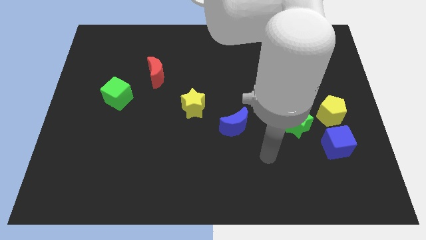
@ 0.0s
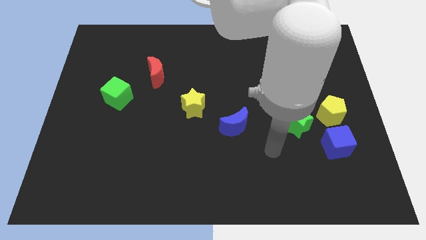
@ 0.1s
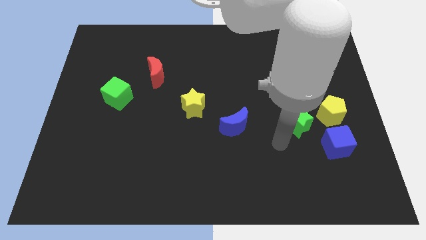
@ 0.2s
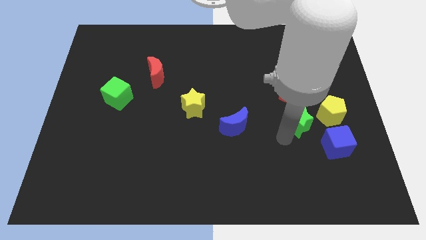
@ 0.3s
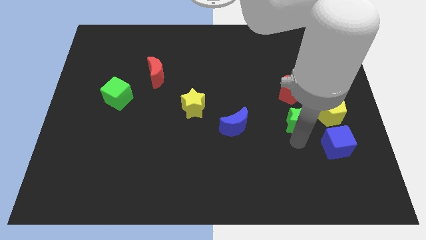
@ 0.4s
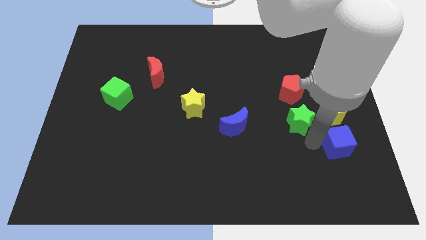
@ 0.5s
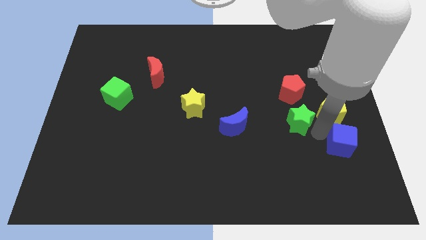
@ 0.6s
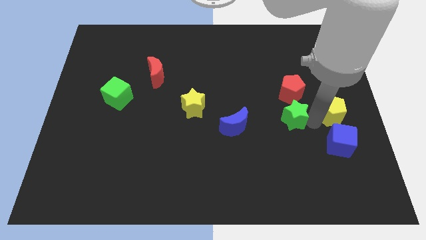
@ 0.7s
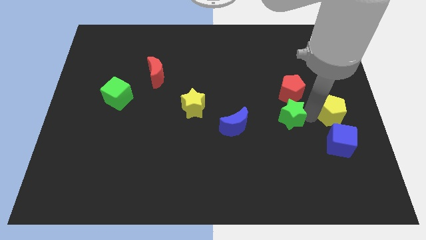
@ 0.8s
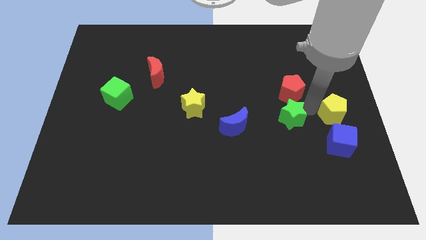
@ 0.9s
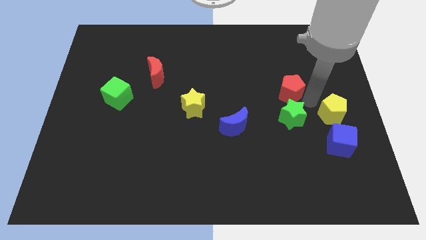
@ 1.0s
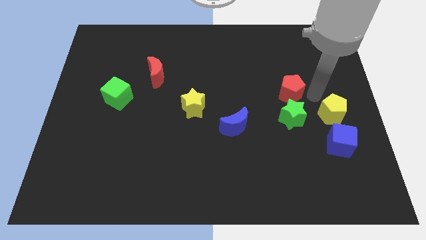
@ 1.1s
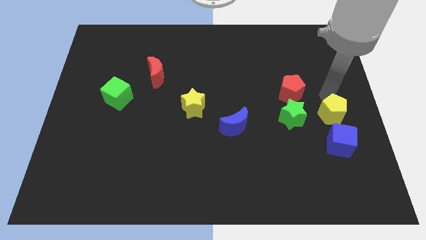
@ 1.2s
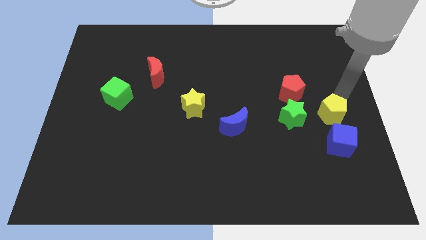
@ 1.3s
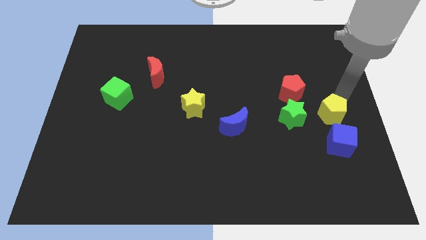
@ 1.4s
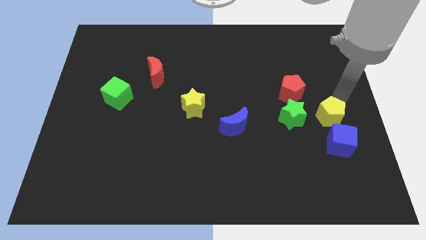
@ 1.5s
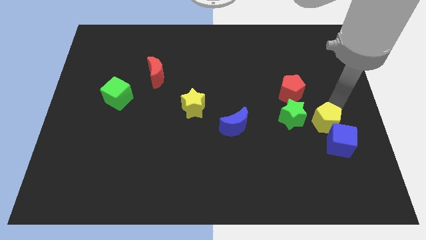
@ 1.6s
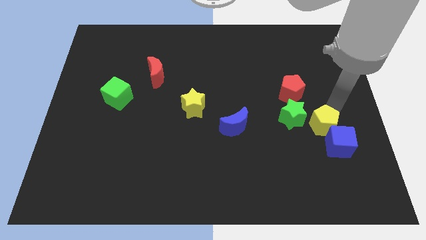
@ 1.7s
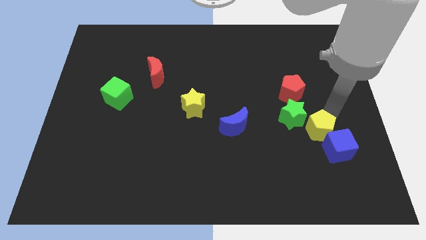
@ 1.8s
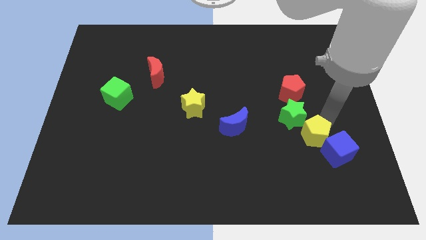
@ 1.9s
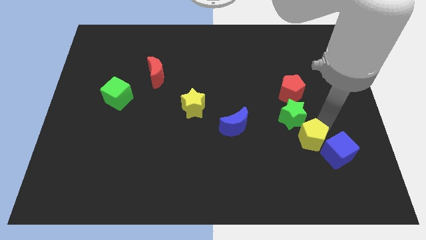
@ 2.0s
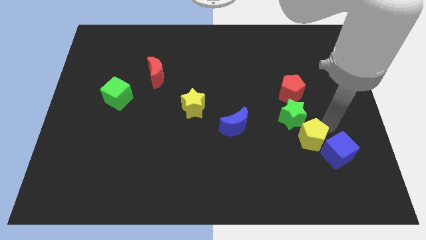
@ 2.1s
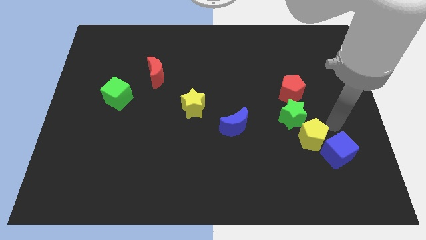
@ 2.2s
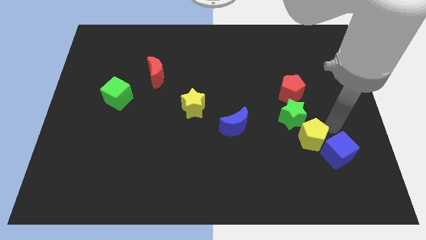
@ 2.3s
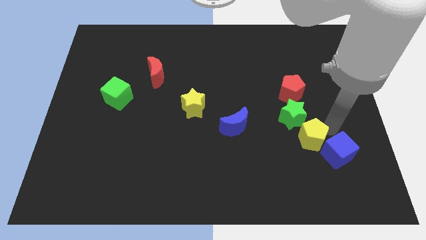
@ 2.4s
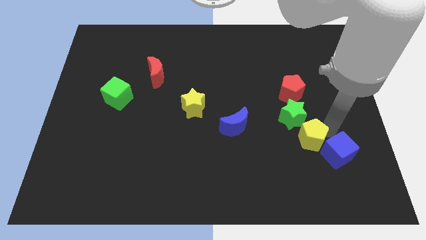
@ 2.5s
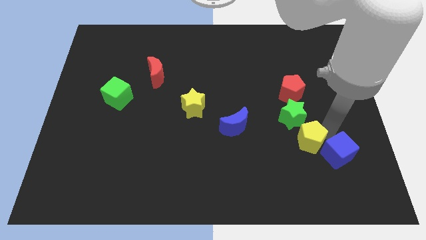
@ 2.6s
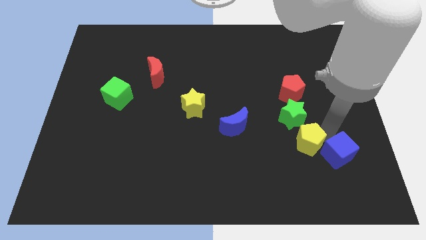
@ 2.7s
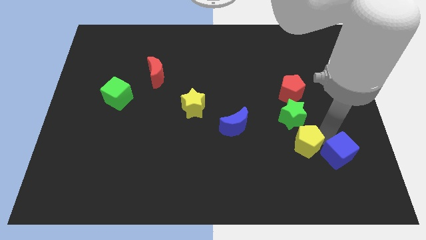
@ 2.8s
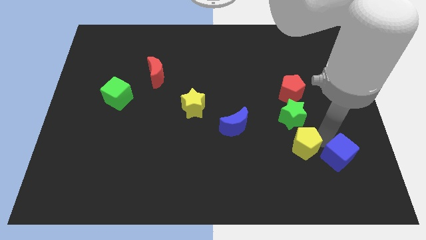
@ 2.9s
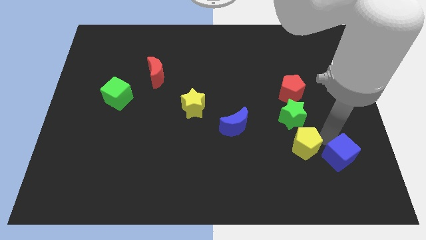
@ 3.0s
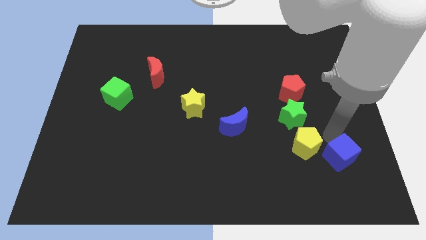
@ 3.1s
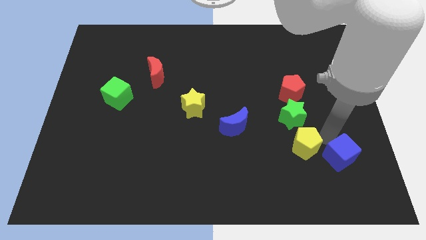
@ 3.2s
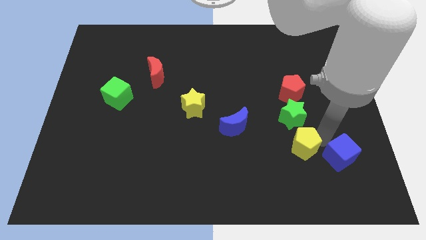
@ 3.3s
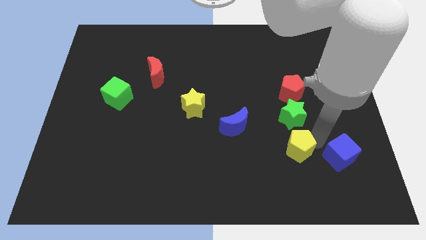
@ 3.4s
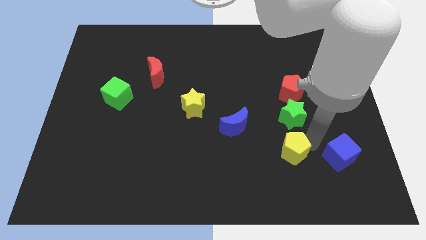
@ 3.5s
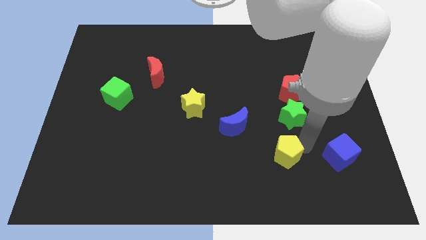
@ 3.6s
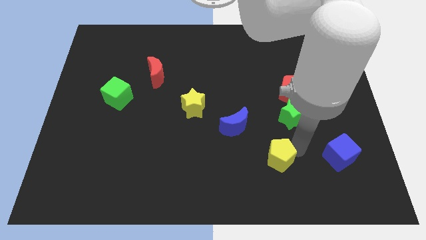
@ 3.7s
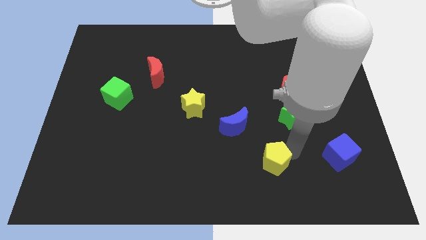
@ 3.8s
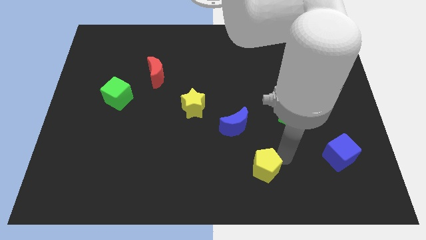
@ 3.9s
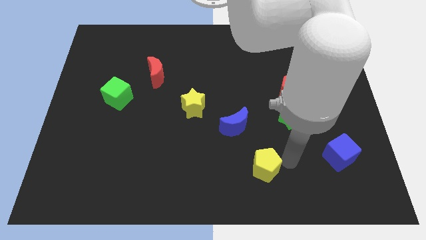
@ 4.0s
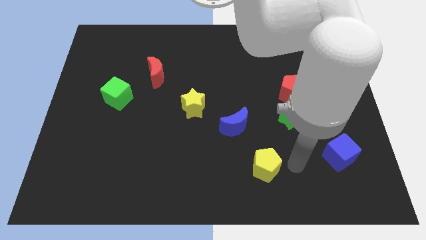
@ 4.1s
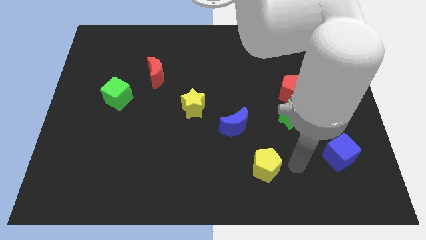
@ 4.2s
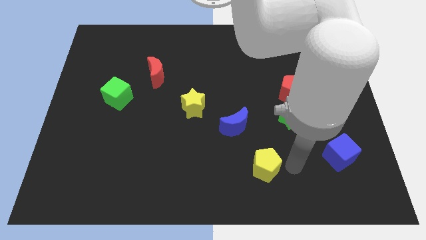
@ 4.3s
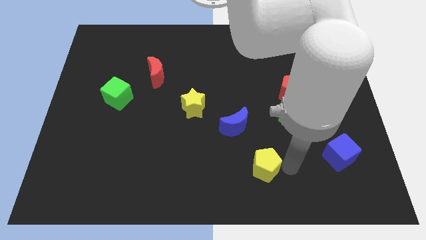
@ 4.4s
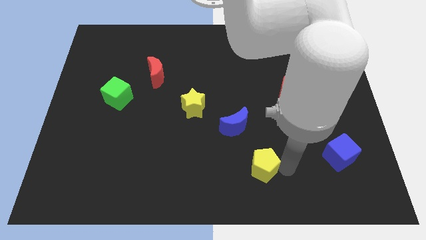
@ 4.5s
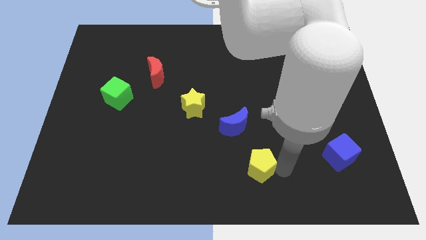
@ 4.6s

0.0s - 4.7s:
put the yellow pentagon to the bottom side of the blue moon

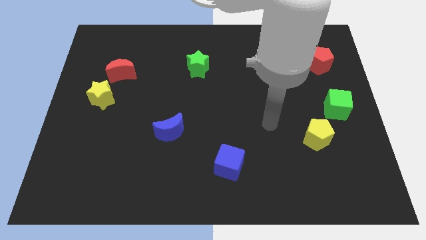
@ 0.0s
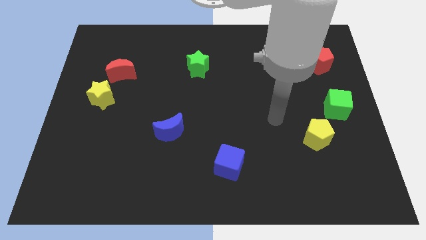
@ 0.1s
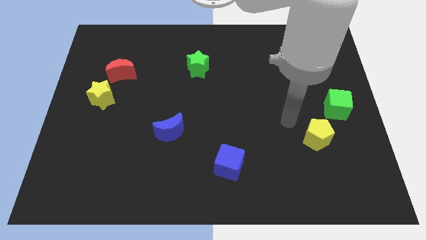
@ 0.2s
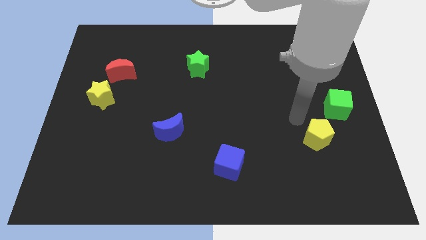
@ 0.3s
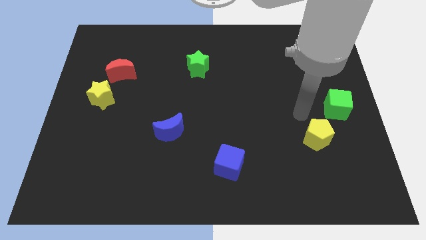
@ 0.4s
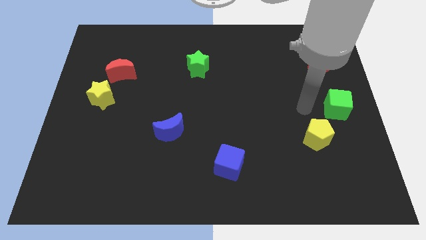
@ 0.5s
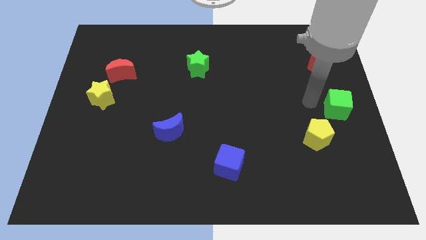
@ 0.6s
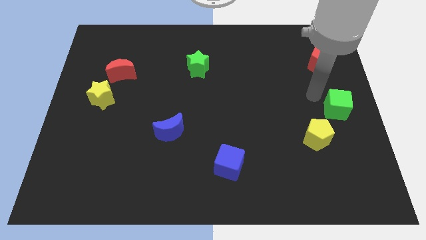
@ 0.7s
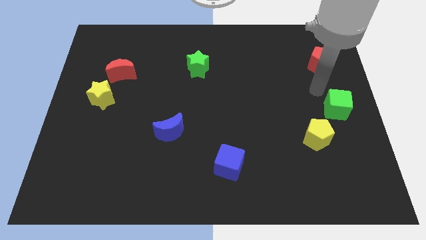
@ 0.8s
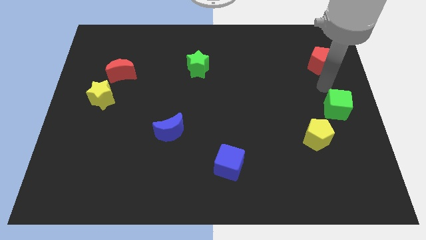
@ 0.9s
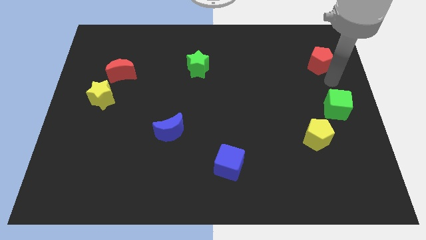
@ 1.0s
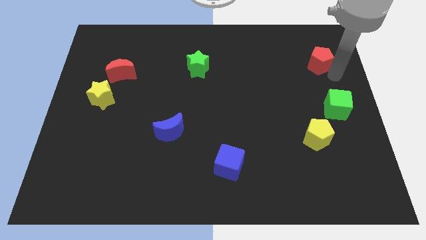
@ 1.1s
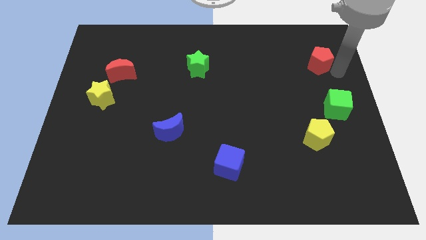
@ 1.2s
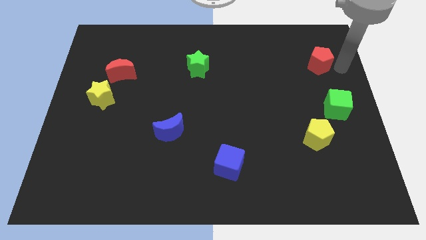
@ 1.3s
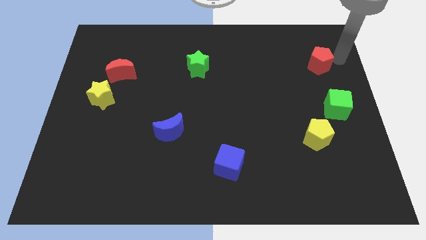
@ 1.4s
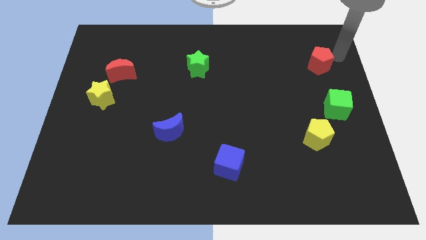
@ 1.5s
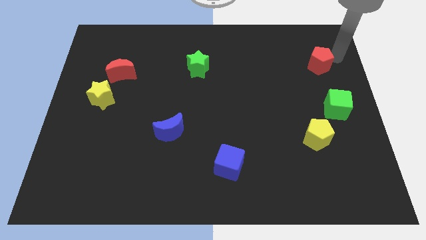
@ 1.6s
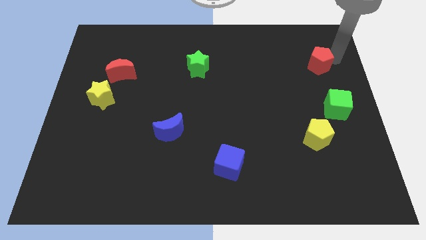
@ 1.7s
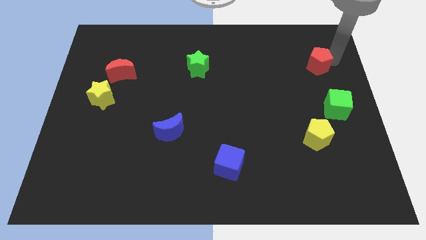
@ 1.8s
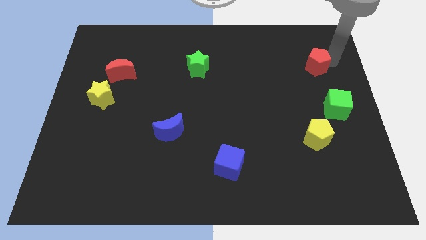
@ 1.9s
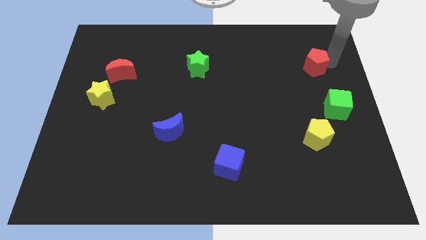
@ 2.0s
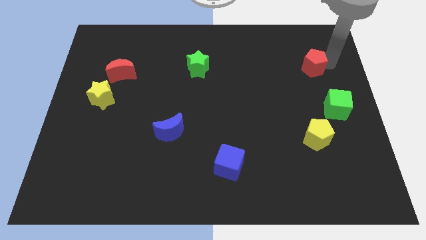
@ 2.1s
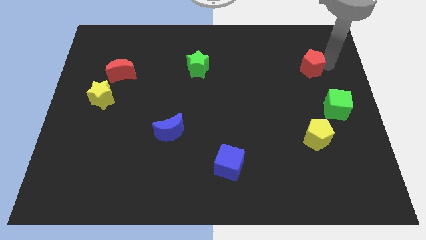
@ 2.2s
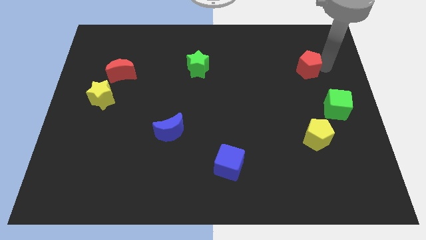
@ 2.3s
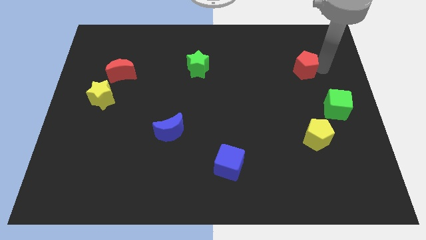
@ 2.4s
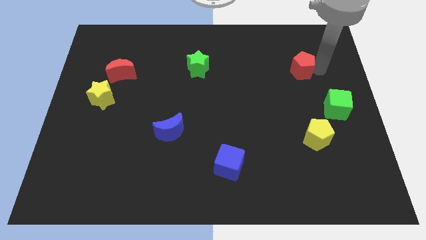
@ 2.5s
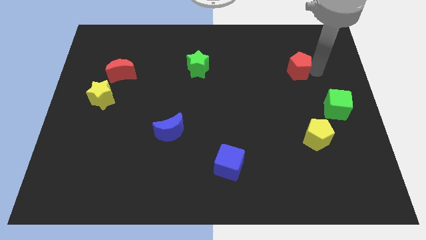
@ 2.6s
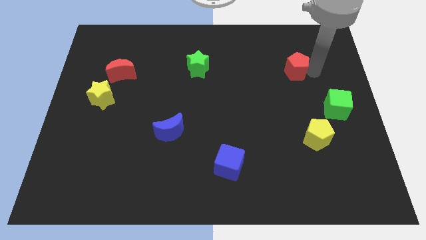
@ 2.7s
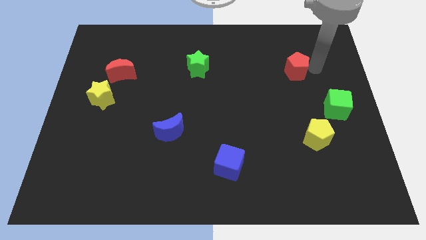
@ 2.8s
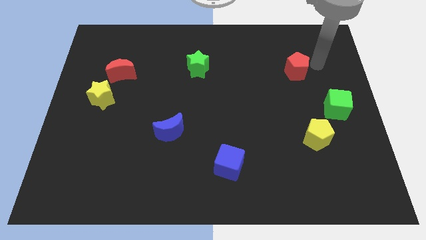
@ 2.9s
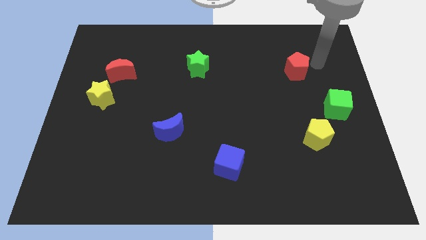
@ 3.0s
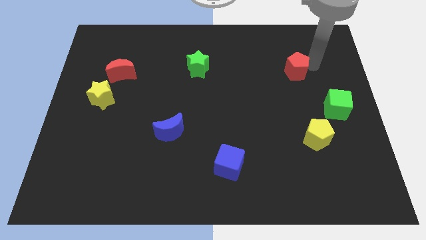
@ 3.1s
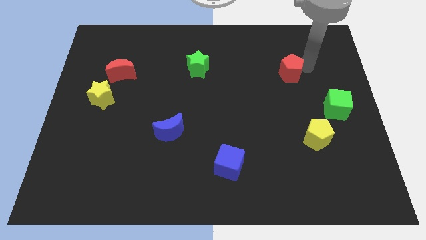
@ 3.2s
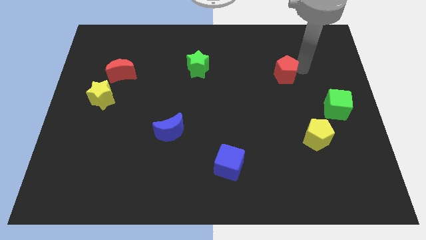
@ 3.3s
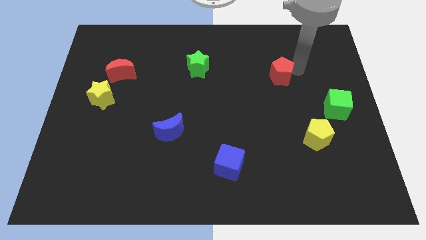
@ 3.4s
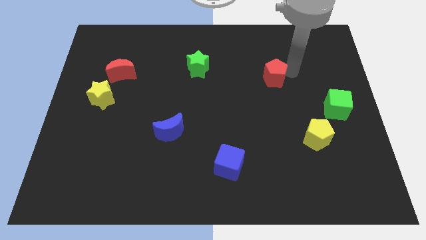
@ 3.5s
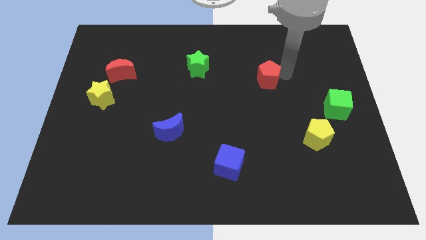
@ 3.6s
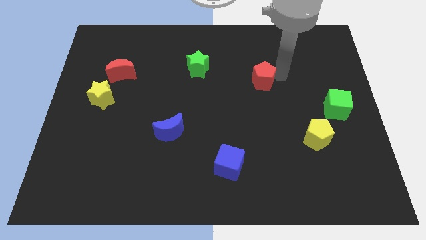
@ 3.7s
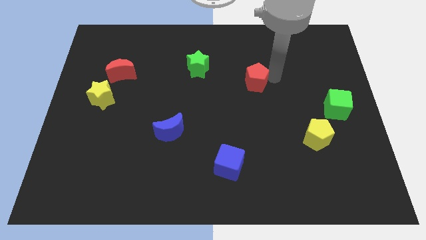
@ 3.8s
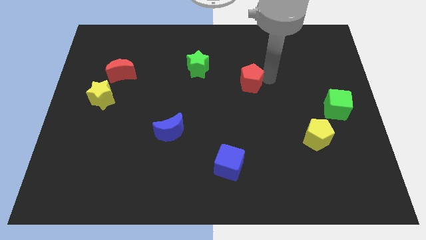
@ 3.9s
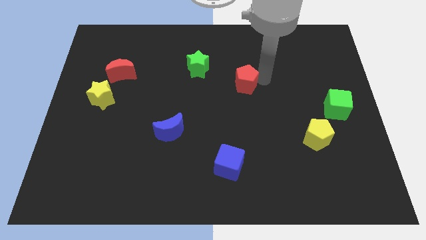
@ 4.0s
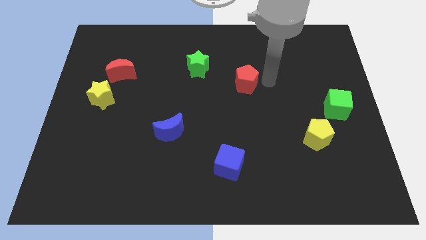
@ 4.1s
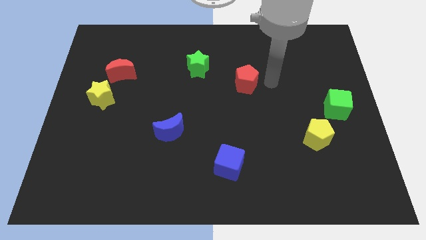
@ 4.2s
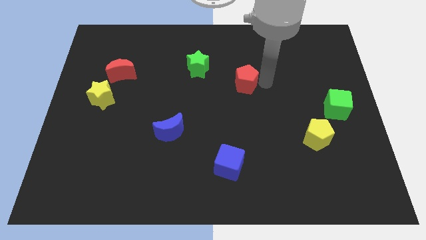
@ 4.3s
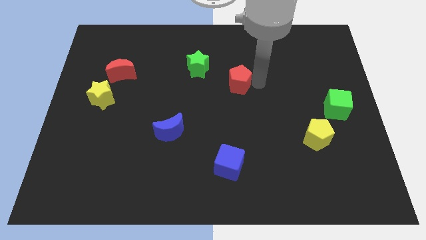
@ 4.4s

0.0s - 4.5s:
slide the red pentagon diagonally down and to the right of the green star
